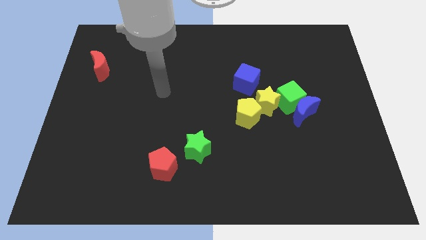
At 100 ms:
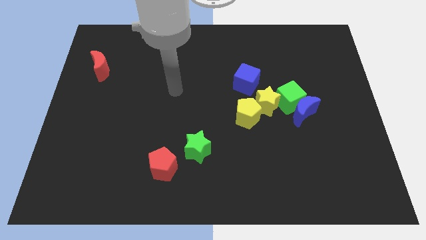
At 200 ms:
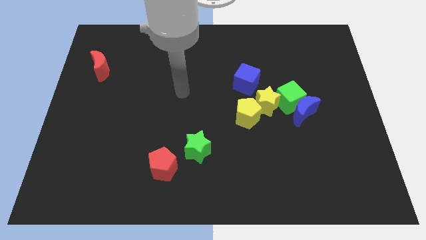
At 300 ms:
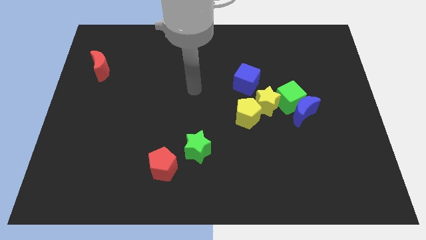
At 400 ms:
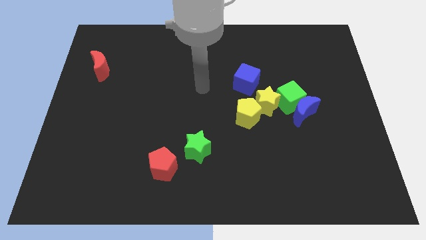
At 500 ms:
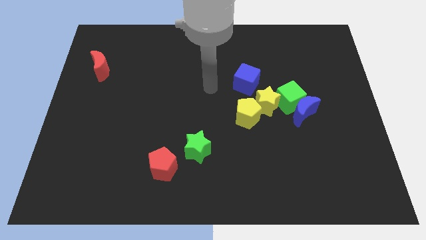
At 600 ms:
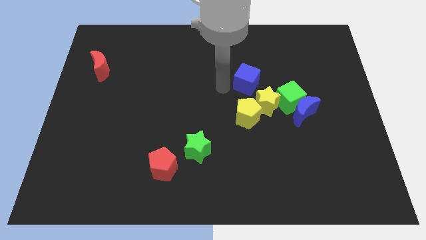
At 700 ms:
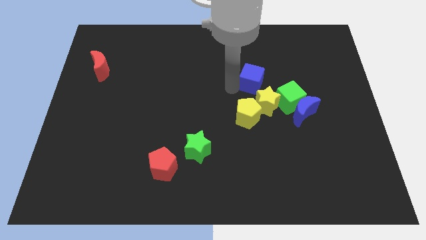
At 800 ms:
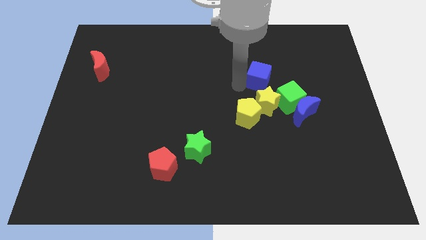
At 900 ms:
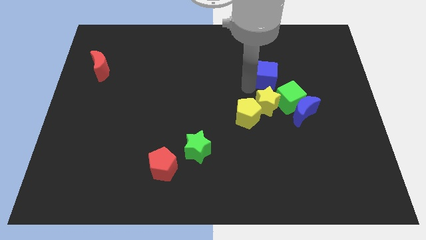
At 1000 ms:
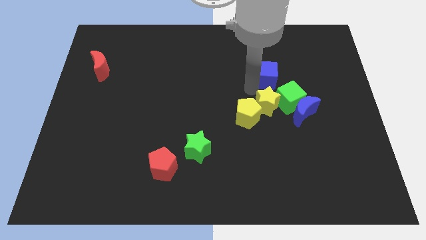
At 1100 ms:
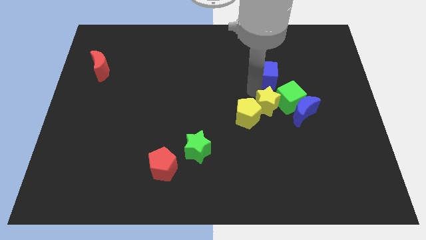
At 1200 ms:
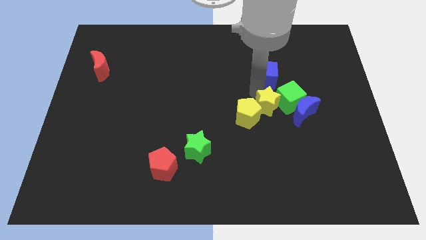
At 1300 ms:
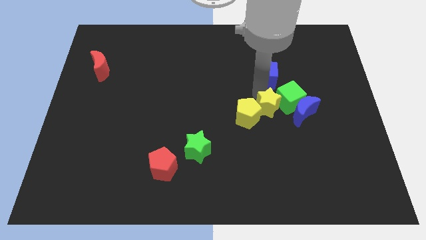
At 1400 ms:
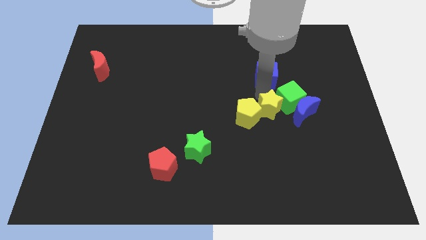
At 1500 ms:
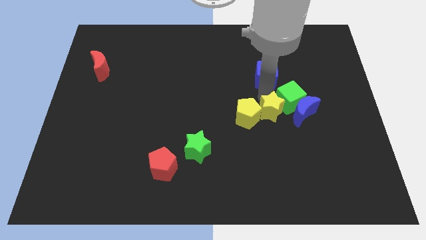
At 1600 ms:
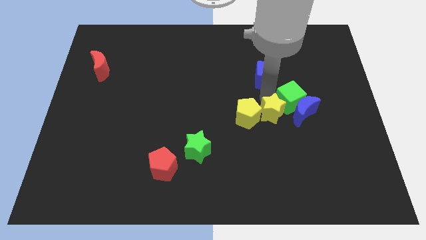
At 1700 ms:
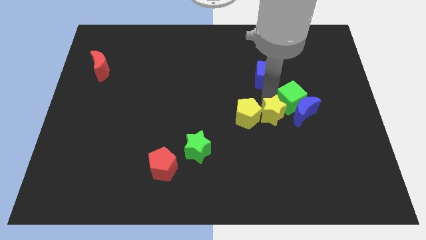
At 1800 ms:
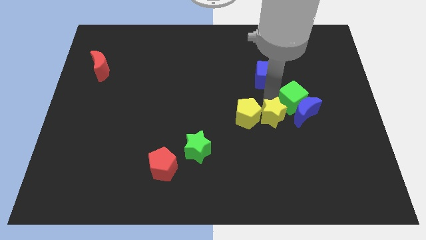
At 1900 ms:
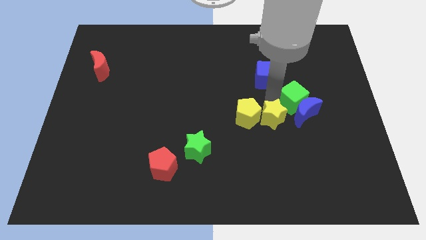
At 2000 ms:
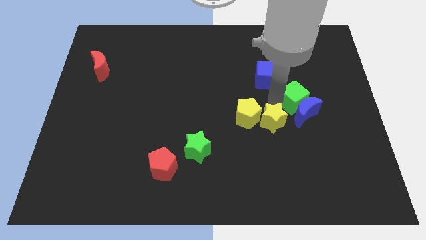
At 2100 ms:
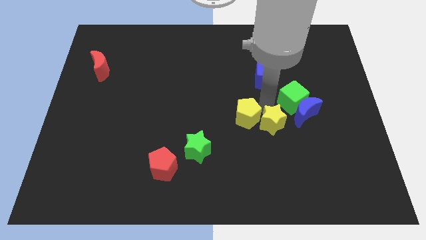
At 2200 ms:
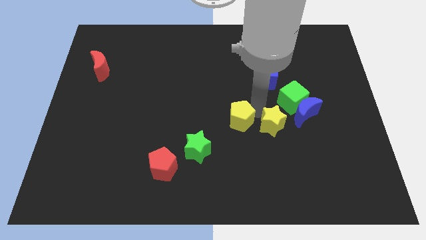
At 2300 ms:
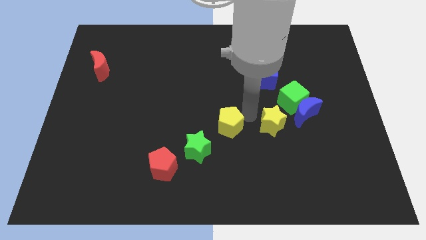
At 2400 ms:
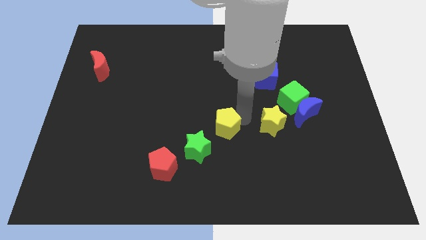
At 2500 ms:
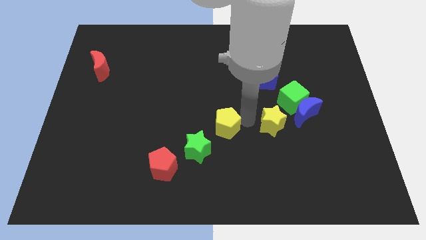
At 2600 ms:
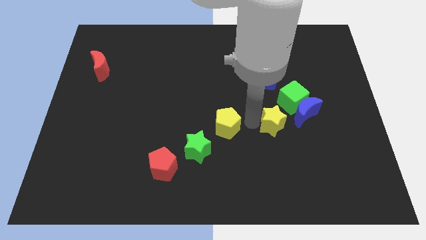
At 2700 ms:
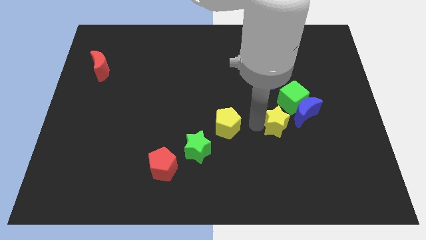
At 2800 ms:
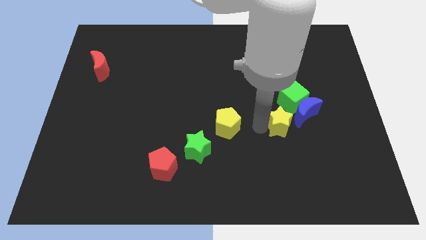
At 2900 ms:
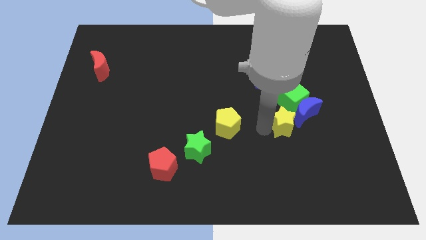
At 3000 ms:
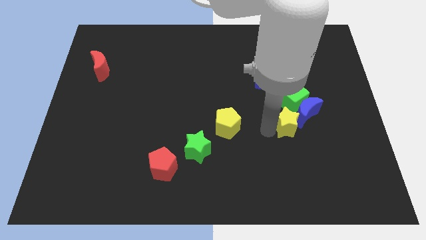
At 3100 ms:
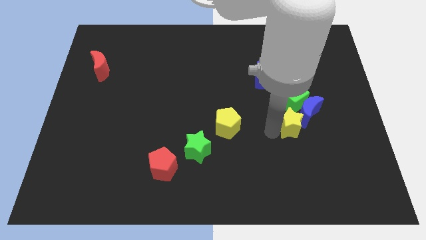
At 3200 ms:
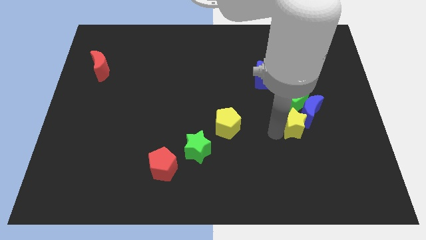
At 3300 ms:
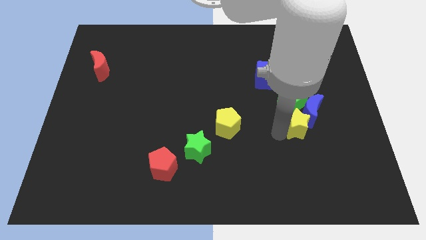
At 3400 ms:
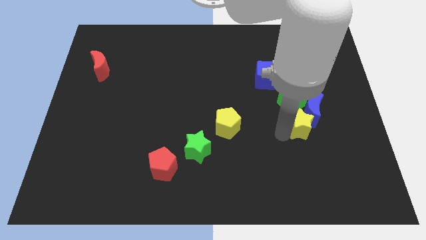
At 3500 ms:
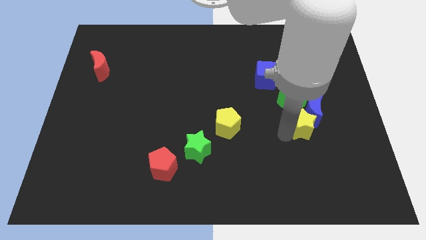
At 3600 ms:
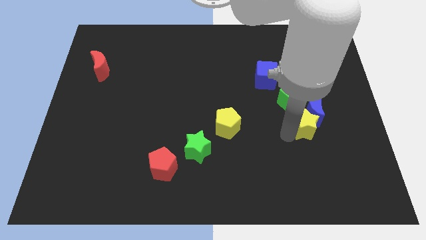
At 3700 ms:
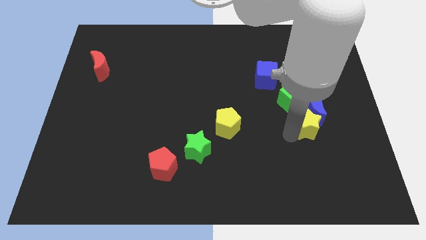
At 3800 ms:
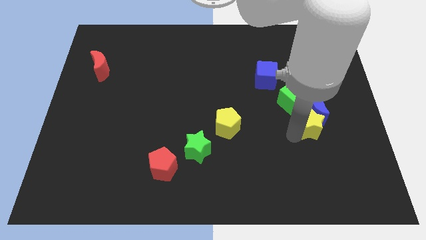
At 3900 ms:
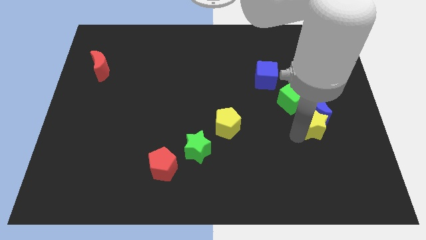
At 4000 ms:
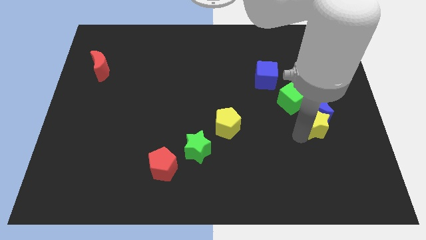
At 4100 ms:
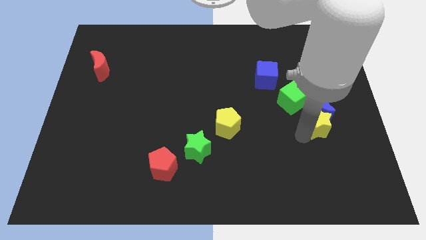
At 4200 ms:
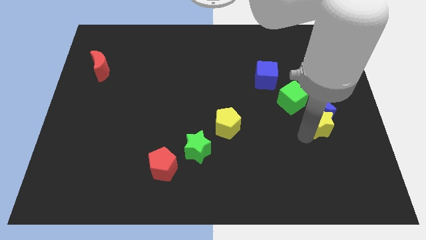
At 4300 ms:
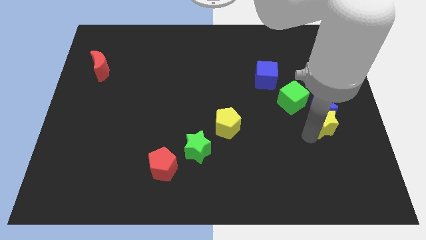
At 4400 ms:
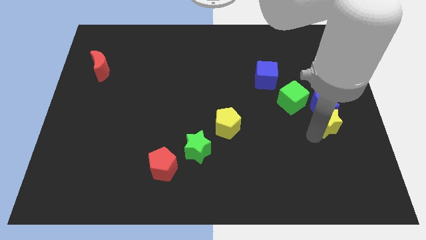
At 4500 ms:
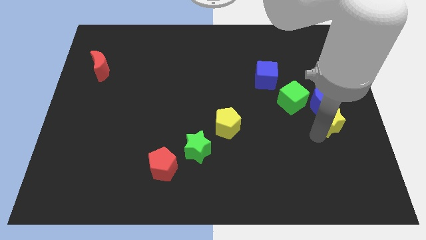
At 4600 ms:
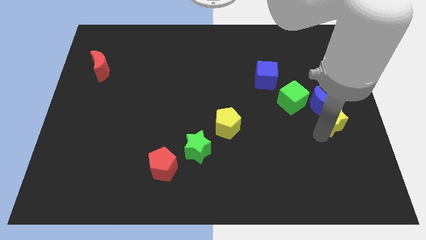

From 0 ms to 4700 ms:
push the yellow star to the right side of the board

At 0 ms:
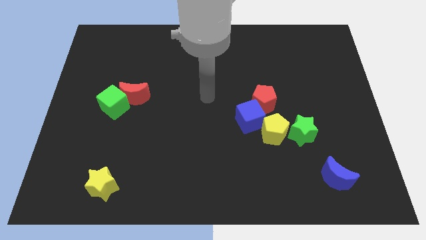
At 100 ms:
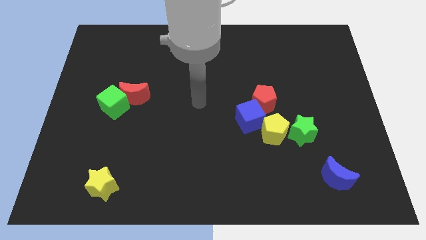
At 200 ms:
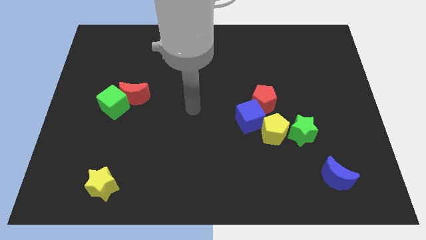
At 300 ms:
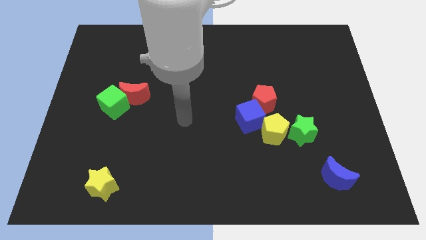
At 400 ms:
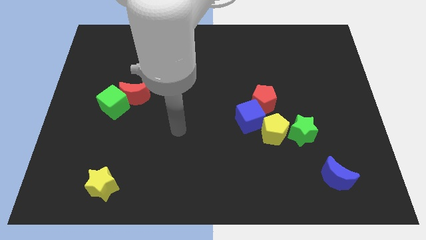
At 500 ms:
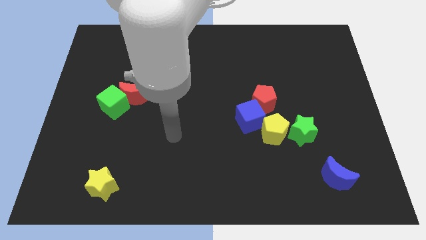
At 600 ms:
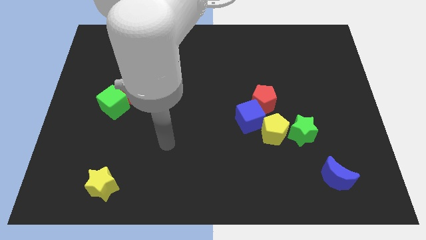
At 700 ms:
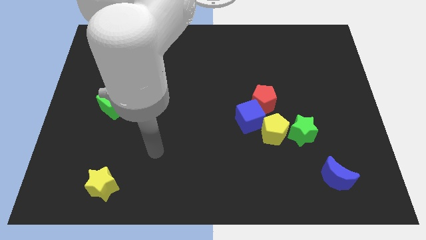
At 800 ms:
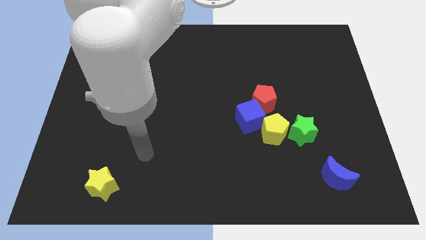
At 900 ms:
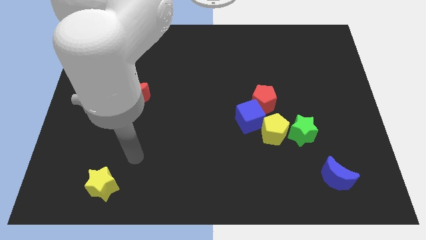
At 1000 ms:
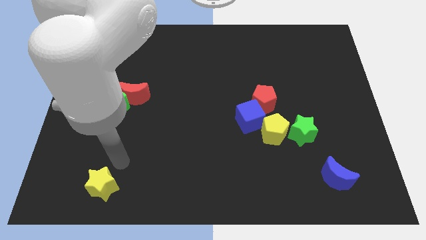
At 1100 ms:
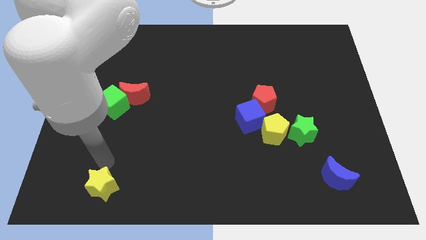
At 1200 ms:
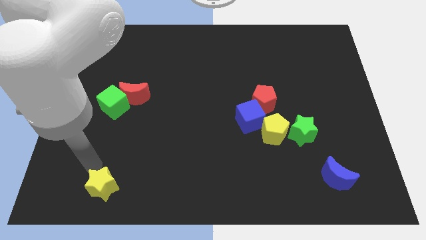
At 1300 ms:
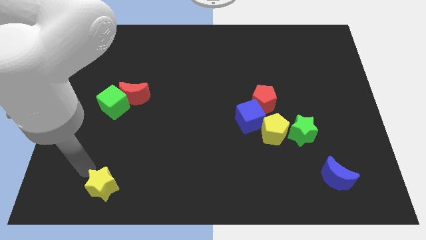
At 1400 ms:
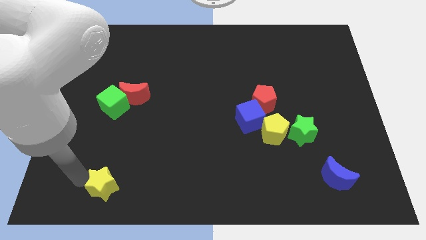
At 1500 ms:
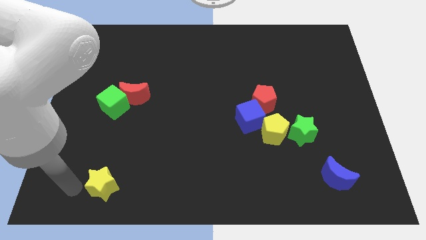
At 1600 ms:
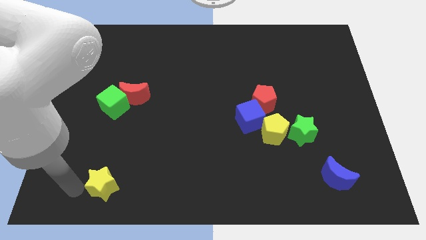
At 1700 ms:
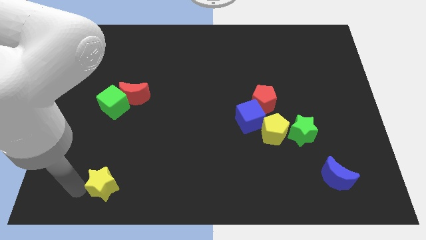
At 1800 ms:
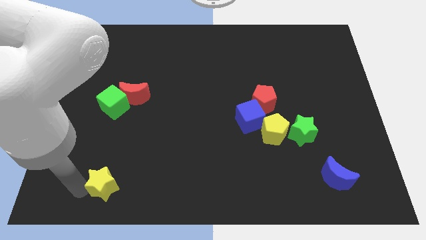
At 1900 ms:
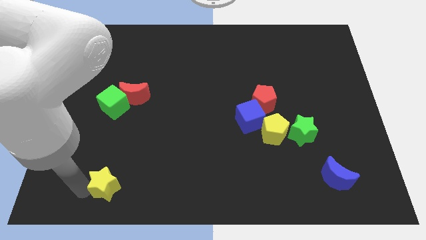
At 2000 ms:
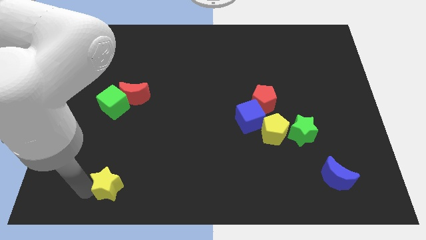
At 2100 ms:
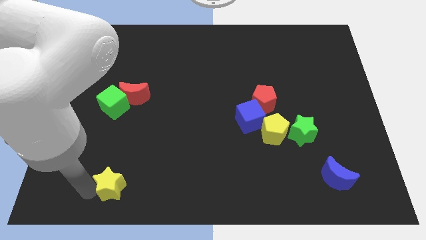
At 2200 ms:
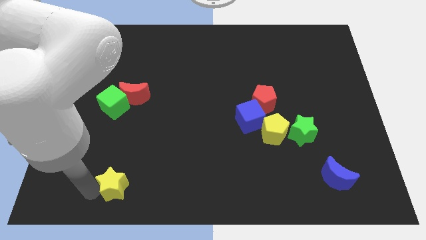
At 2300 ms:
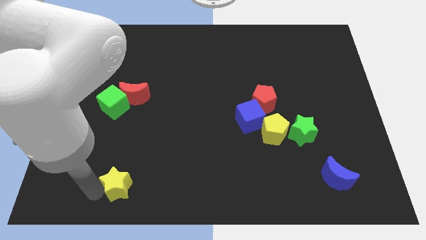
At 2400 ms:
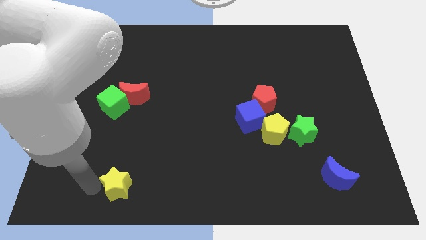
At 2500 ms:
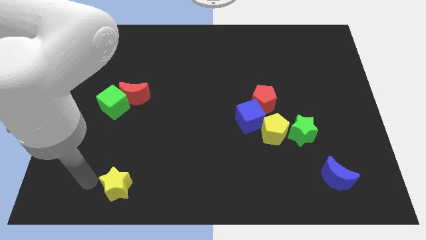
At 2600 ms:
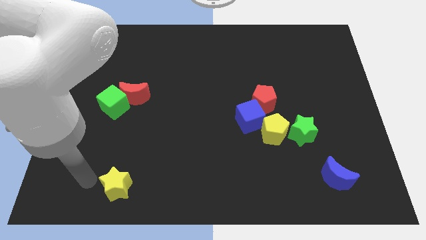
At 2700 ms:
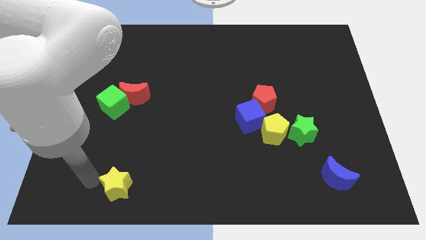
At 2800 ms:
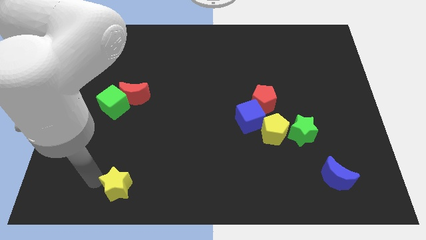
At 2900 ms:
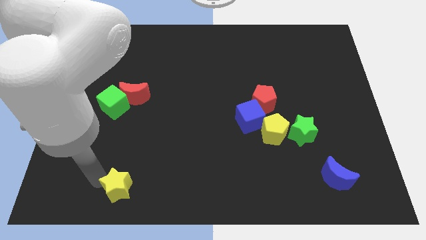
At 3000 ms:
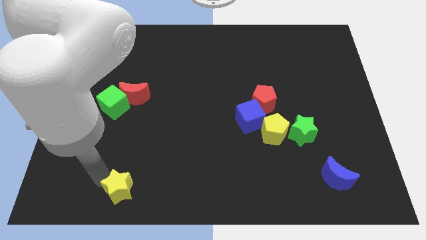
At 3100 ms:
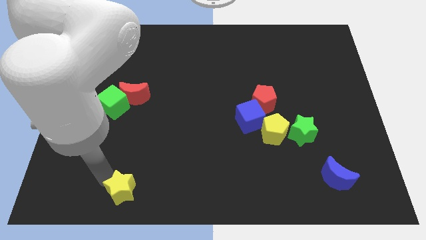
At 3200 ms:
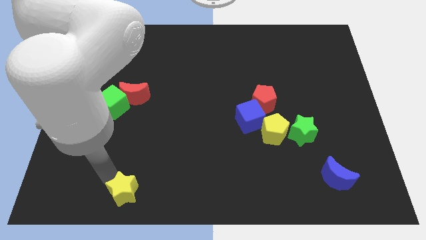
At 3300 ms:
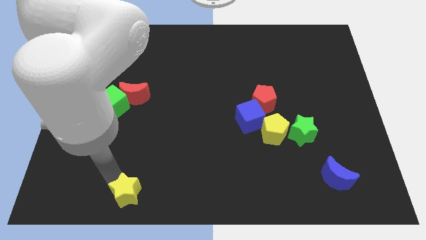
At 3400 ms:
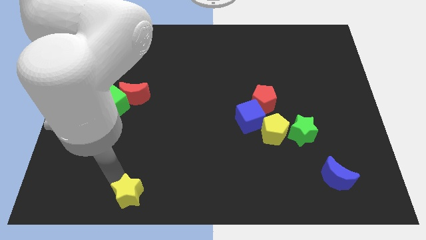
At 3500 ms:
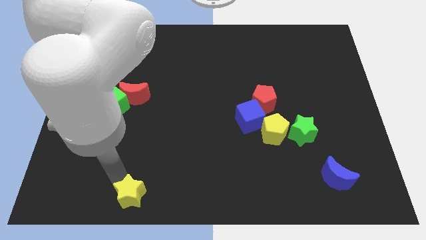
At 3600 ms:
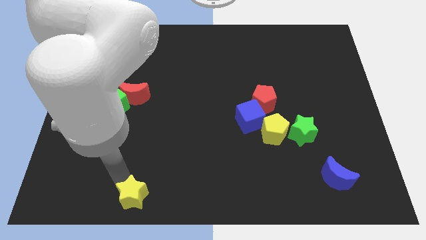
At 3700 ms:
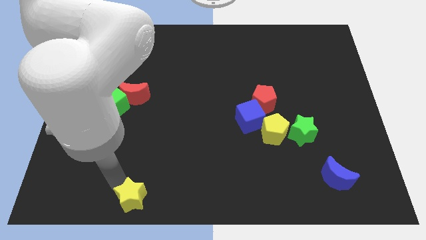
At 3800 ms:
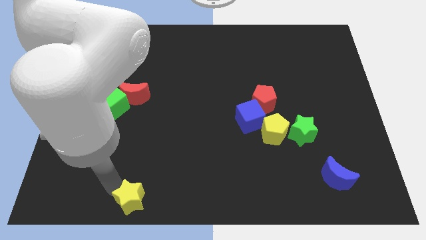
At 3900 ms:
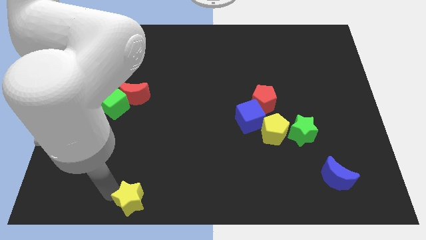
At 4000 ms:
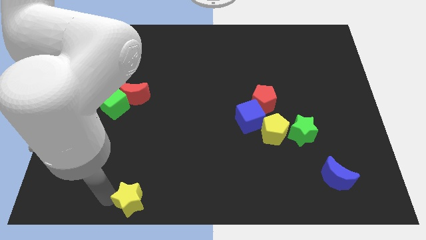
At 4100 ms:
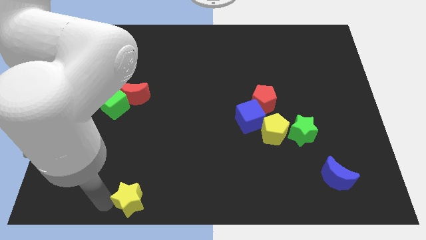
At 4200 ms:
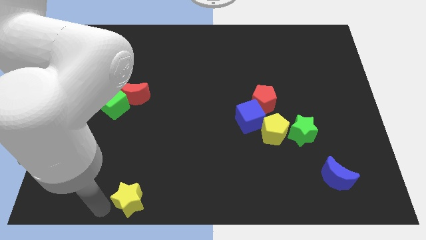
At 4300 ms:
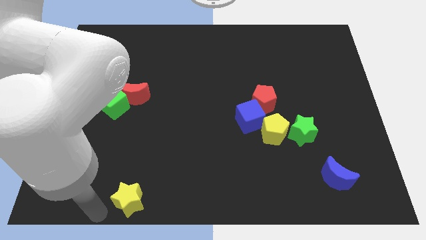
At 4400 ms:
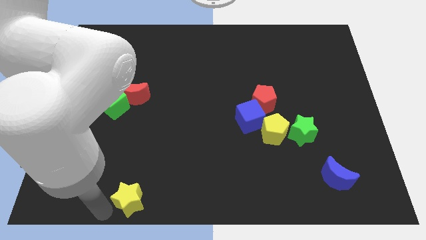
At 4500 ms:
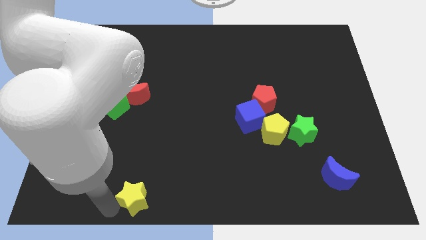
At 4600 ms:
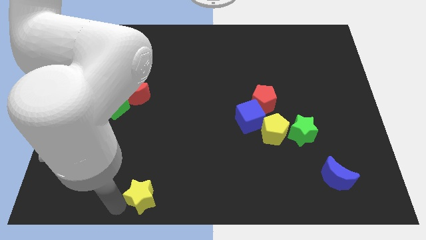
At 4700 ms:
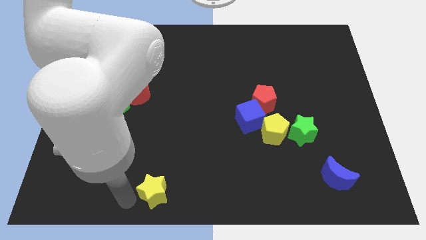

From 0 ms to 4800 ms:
move the yellow star to the bottom side
